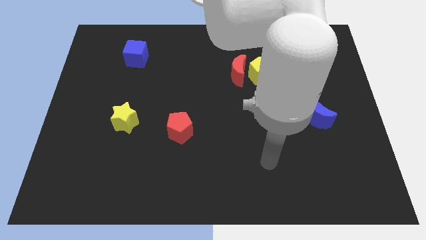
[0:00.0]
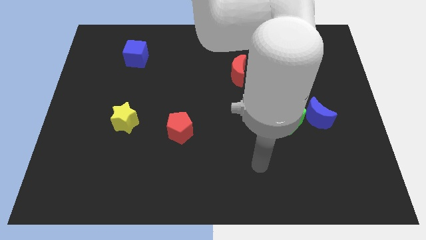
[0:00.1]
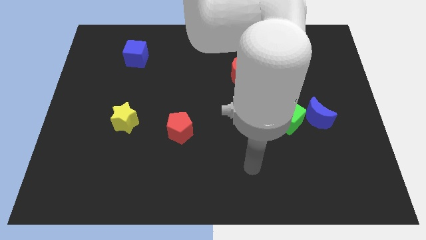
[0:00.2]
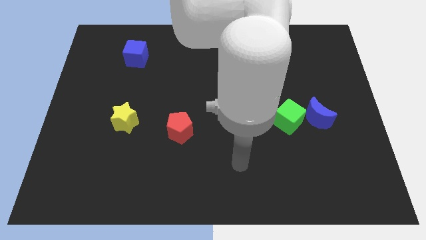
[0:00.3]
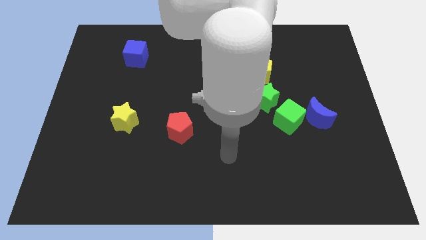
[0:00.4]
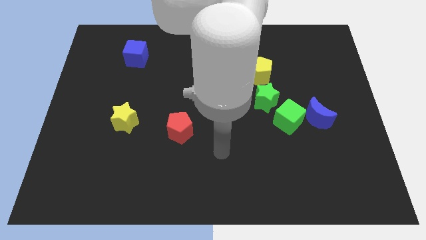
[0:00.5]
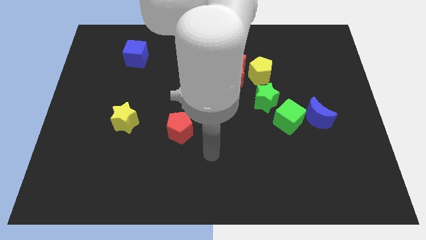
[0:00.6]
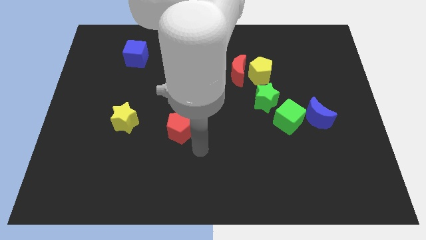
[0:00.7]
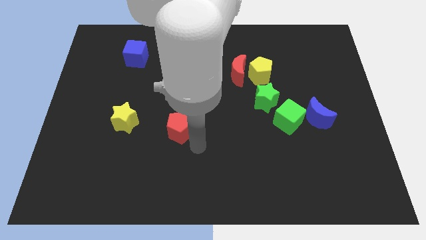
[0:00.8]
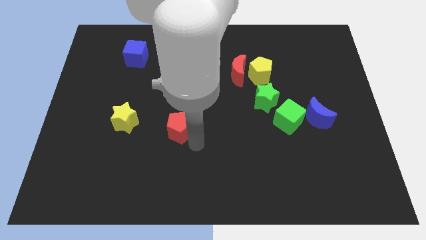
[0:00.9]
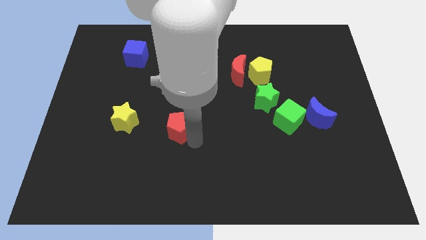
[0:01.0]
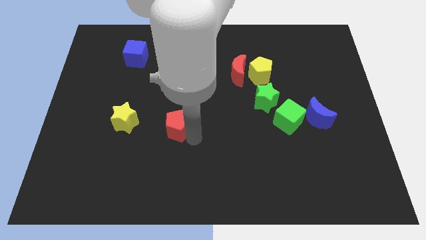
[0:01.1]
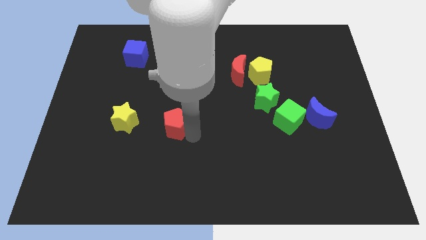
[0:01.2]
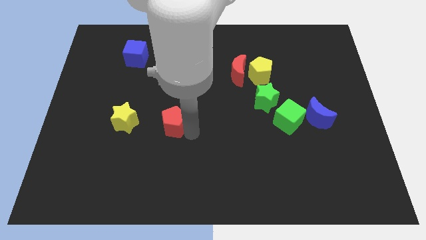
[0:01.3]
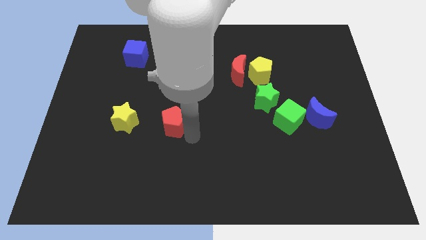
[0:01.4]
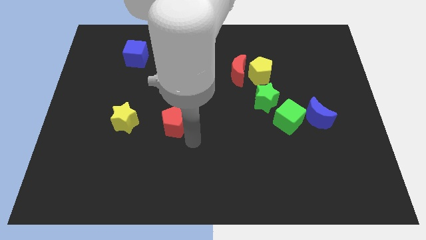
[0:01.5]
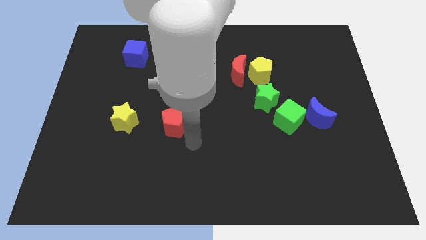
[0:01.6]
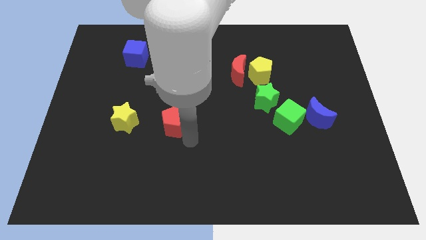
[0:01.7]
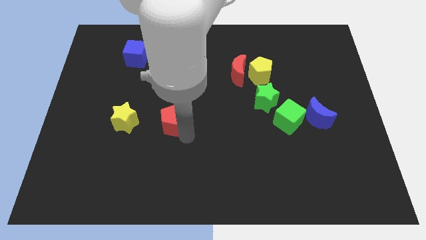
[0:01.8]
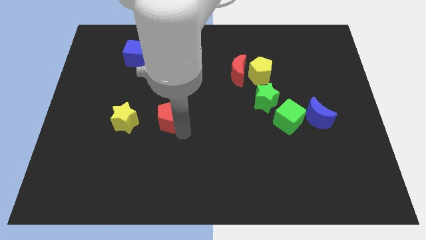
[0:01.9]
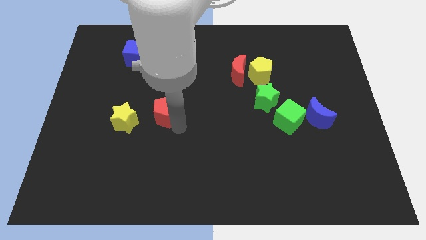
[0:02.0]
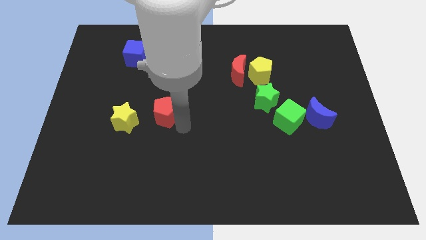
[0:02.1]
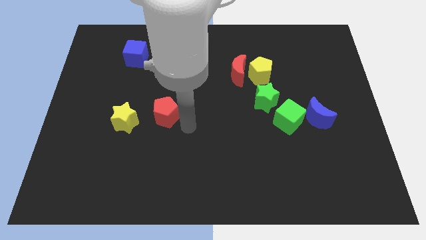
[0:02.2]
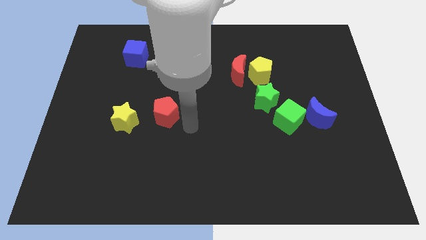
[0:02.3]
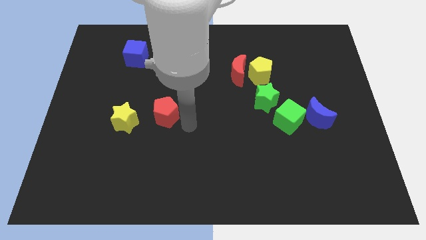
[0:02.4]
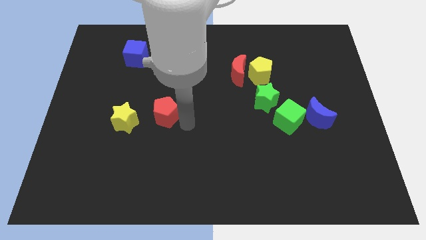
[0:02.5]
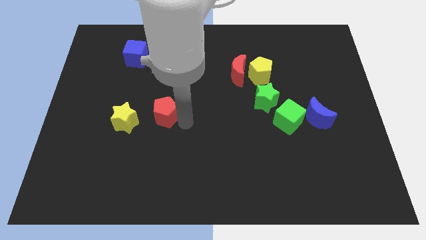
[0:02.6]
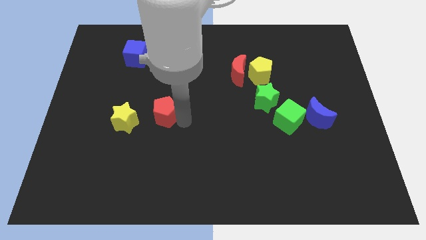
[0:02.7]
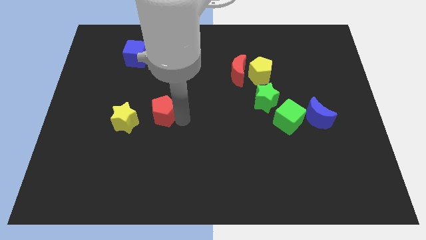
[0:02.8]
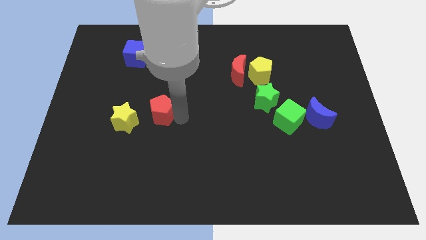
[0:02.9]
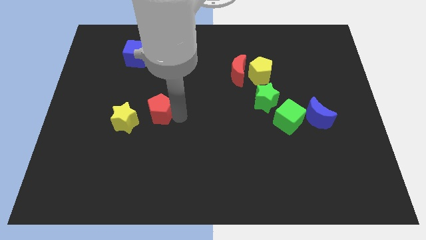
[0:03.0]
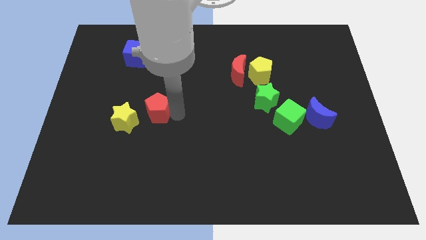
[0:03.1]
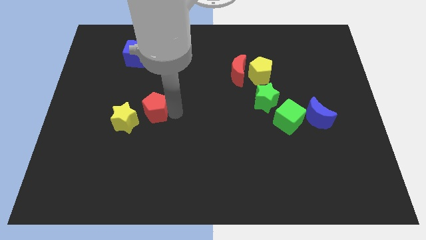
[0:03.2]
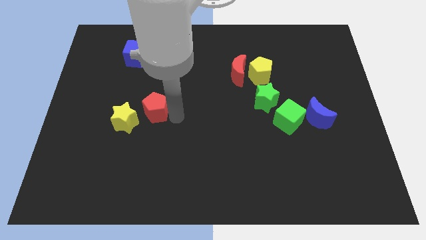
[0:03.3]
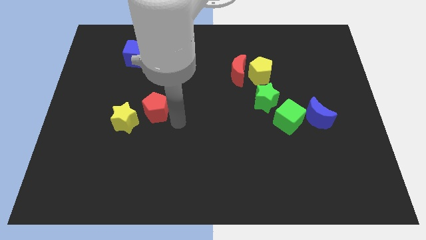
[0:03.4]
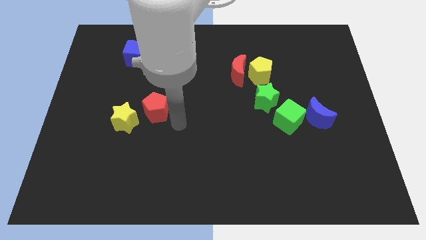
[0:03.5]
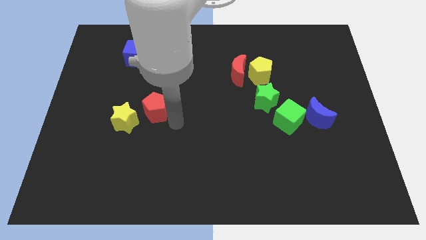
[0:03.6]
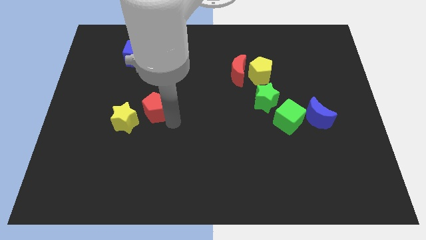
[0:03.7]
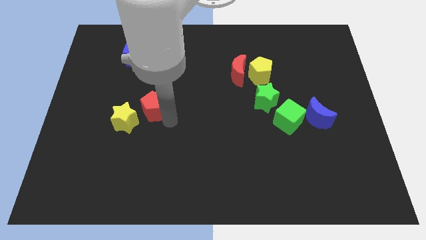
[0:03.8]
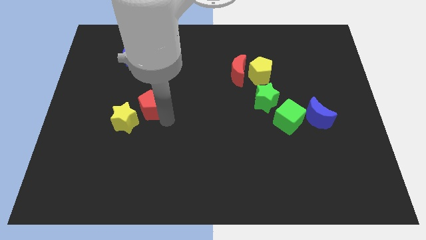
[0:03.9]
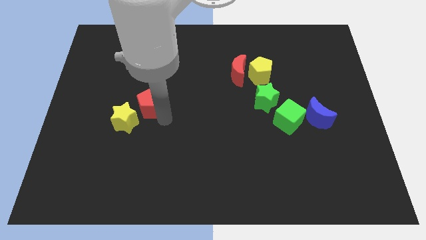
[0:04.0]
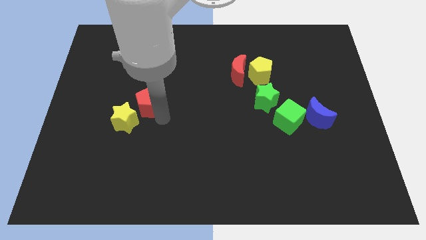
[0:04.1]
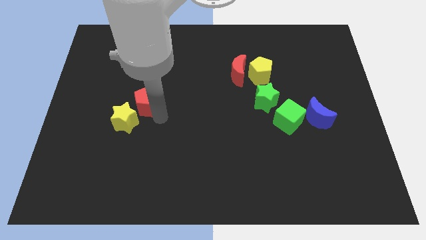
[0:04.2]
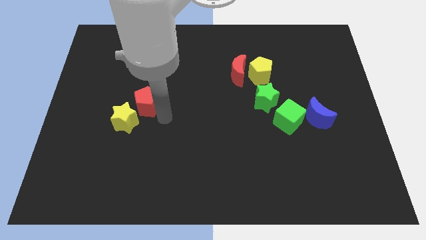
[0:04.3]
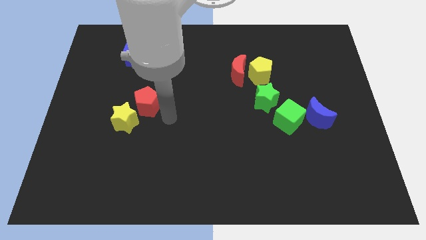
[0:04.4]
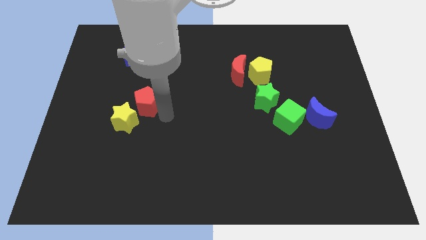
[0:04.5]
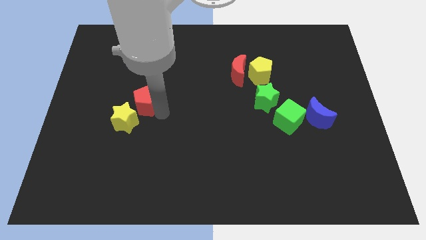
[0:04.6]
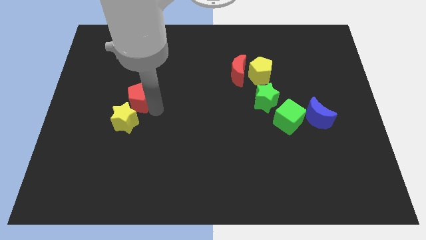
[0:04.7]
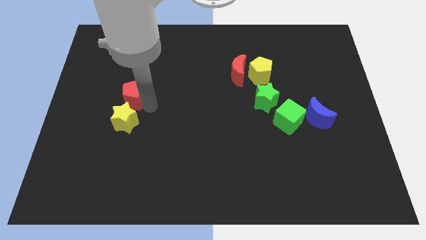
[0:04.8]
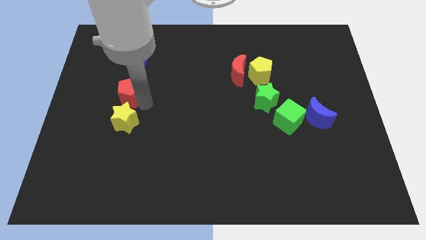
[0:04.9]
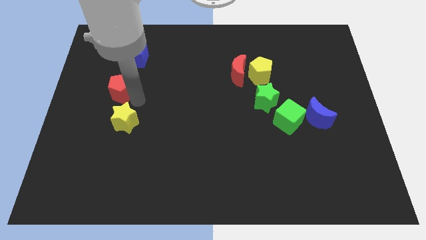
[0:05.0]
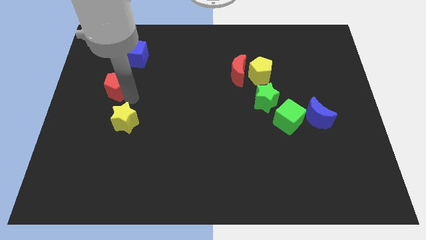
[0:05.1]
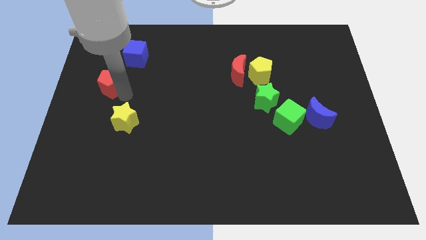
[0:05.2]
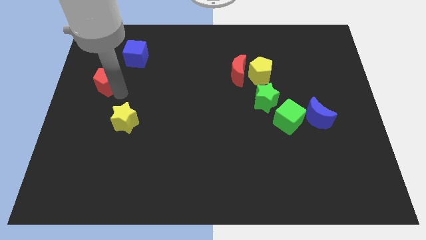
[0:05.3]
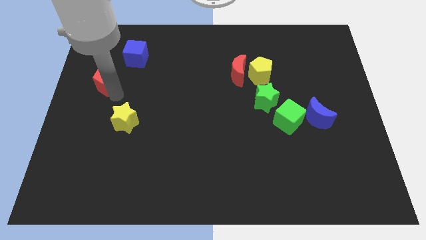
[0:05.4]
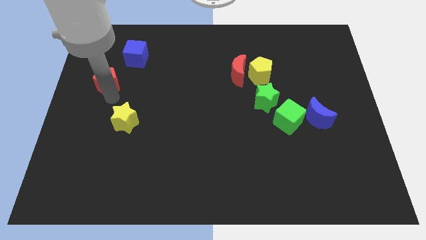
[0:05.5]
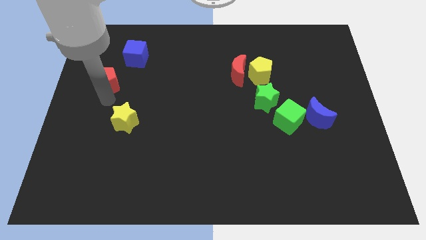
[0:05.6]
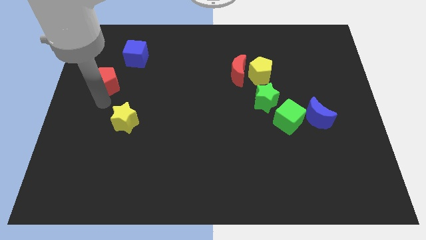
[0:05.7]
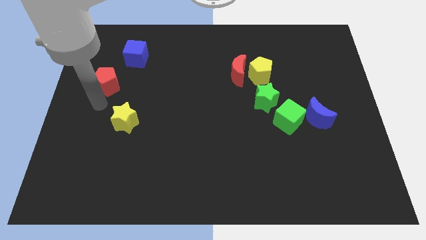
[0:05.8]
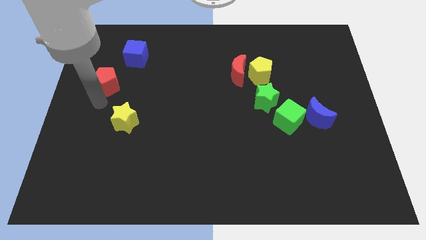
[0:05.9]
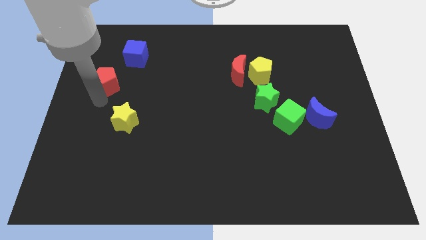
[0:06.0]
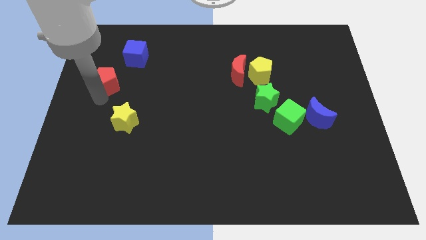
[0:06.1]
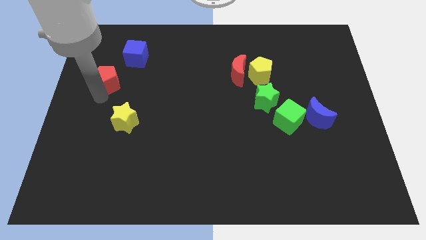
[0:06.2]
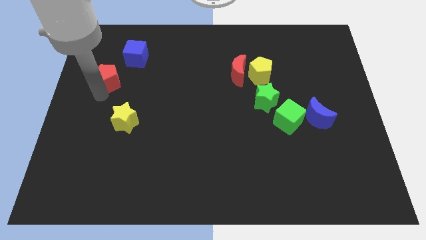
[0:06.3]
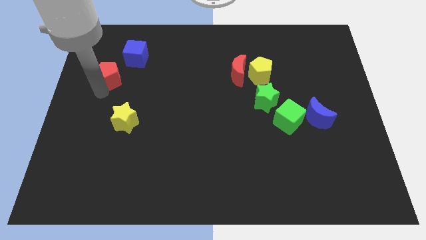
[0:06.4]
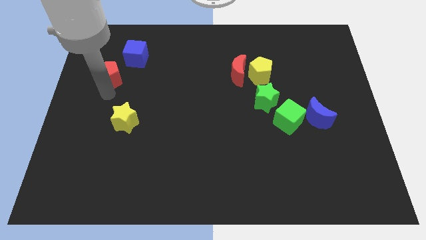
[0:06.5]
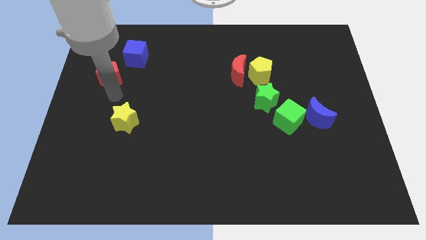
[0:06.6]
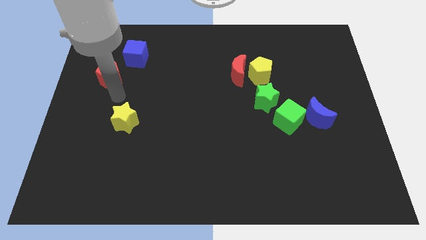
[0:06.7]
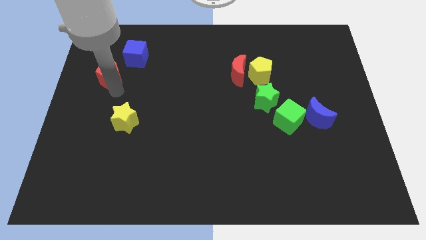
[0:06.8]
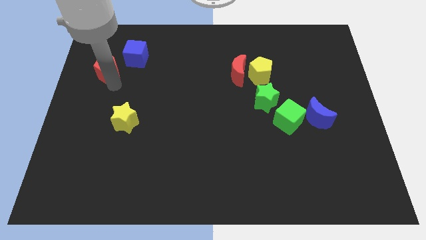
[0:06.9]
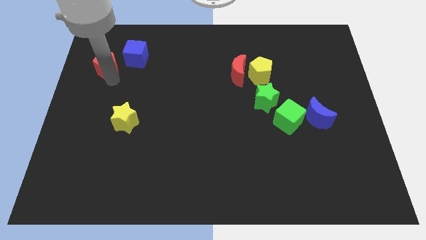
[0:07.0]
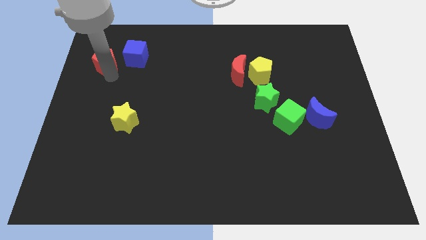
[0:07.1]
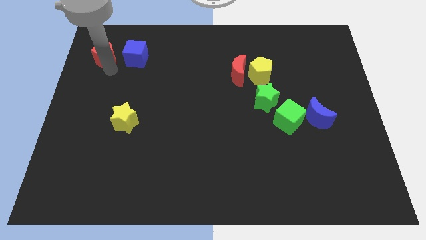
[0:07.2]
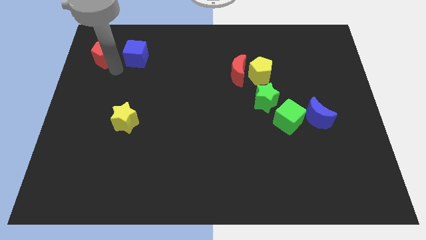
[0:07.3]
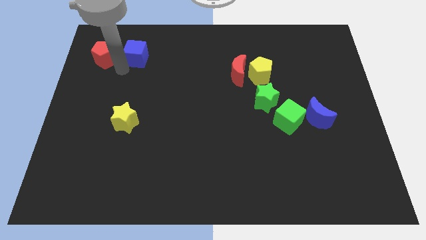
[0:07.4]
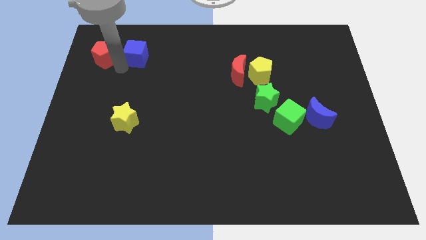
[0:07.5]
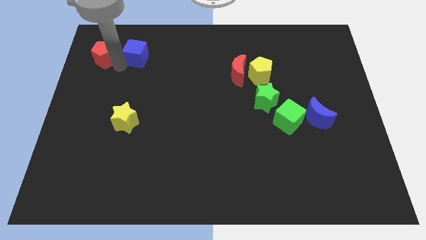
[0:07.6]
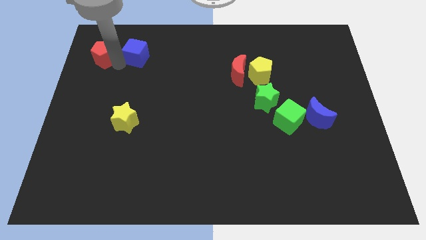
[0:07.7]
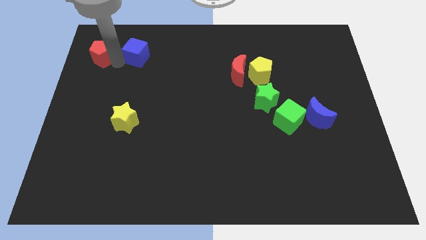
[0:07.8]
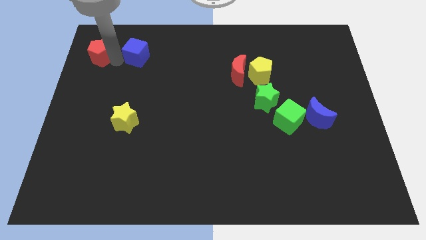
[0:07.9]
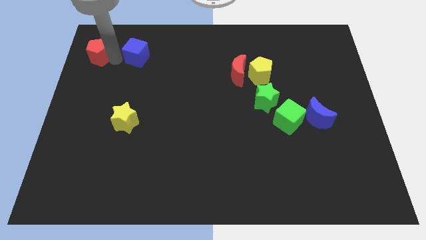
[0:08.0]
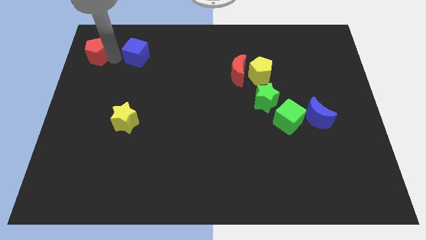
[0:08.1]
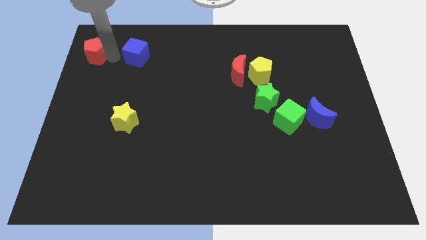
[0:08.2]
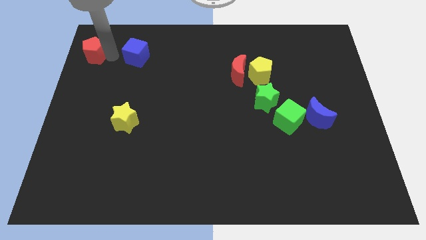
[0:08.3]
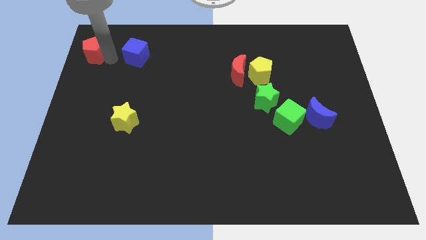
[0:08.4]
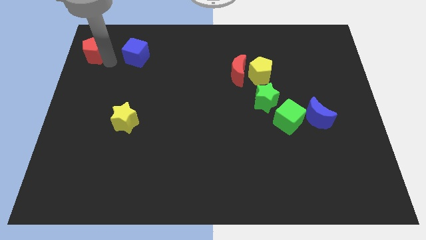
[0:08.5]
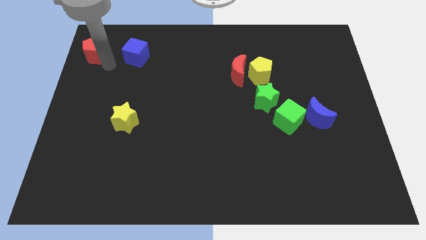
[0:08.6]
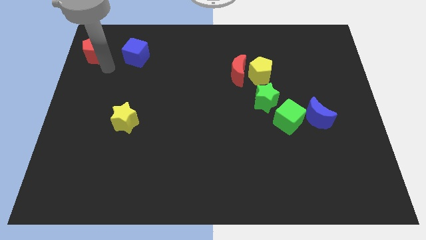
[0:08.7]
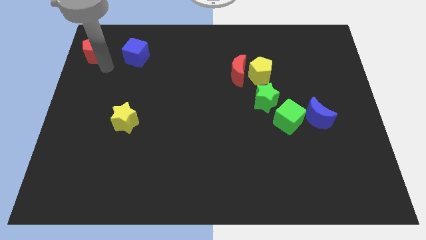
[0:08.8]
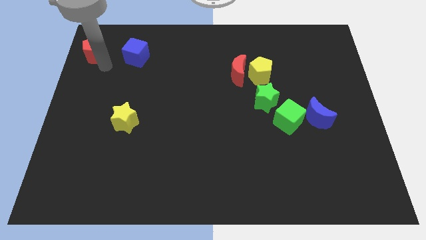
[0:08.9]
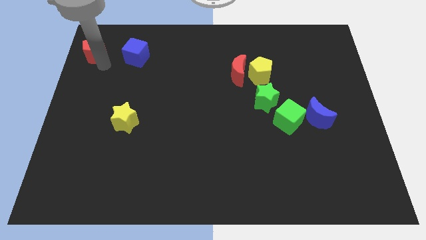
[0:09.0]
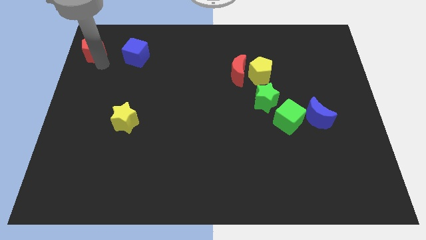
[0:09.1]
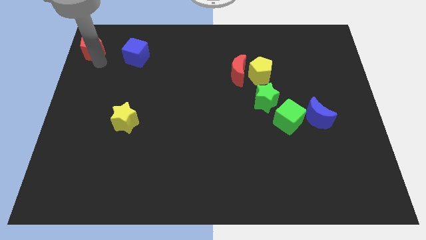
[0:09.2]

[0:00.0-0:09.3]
put the red pentagon to the top left
